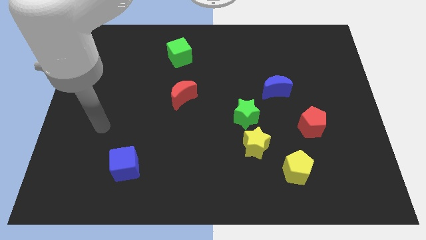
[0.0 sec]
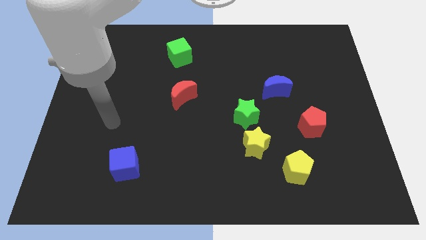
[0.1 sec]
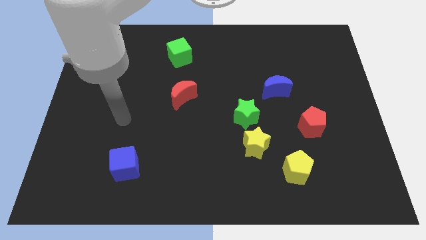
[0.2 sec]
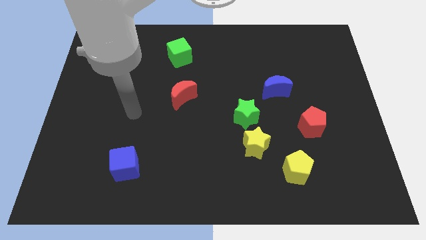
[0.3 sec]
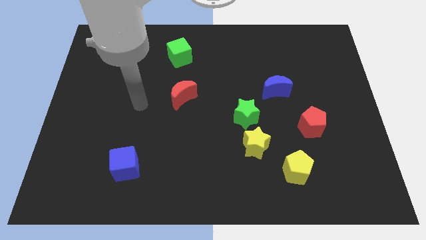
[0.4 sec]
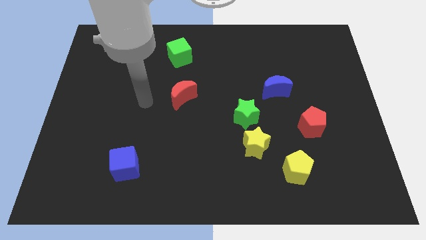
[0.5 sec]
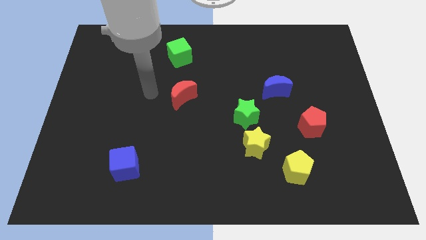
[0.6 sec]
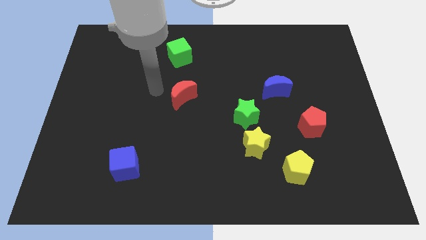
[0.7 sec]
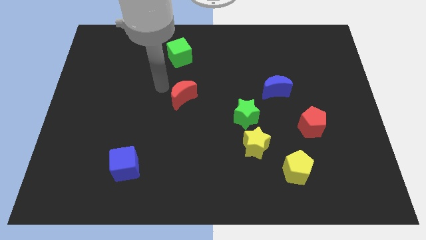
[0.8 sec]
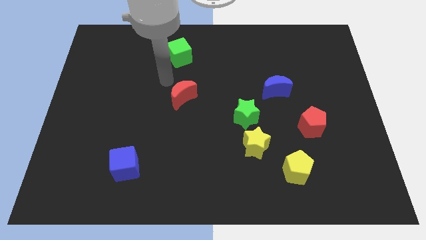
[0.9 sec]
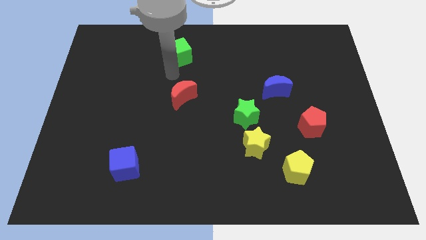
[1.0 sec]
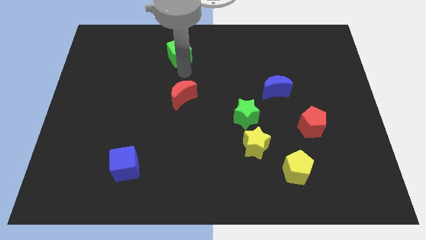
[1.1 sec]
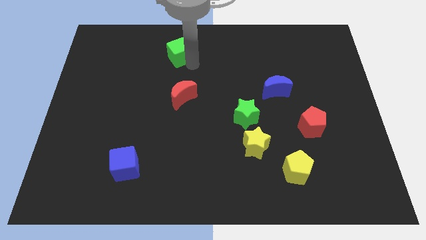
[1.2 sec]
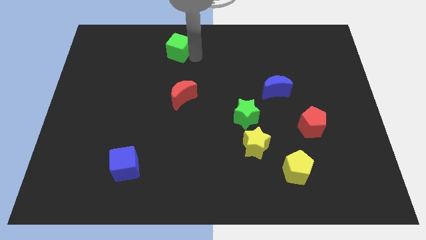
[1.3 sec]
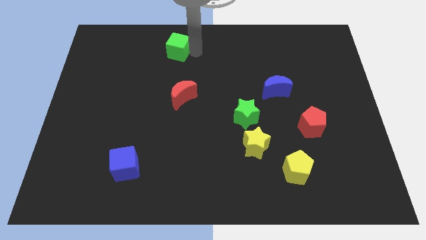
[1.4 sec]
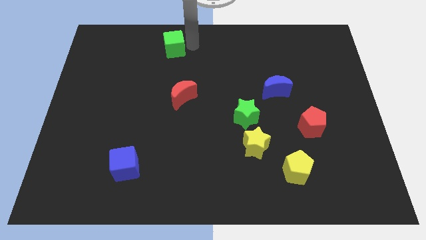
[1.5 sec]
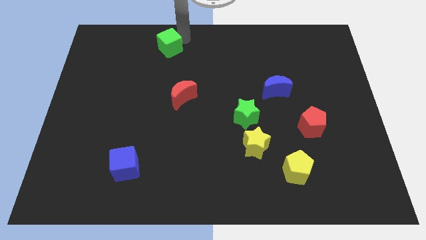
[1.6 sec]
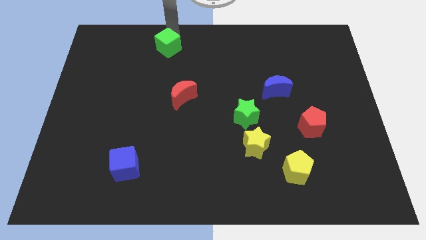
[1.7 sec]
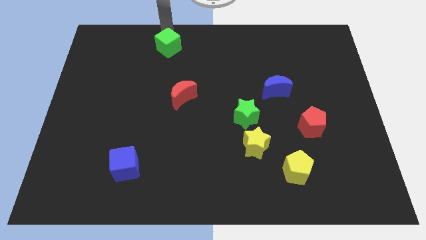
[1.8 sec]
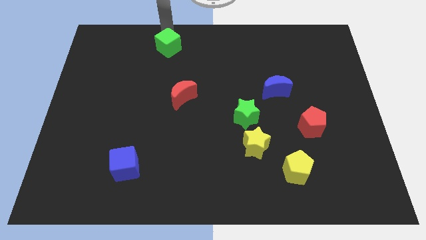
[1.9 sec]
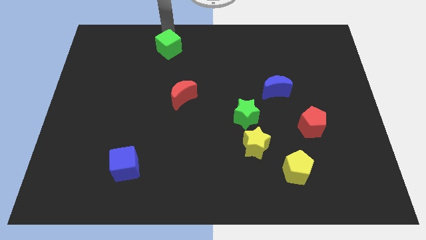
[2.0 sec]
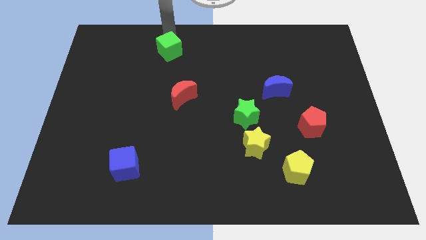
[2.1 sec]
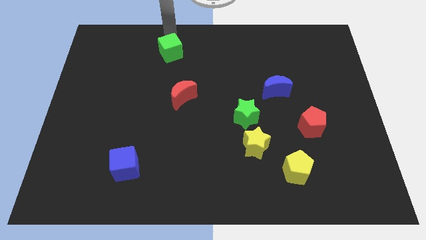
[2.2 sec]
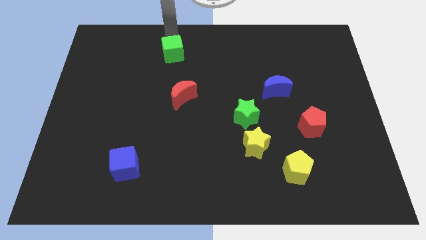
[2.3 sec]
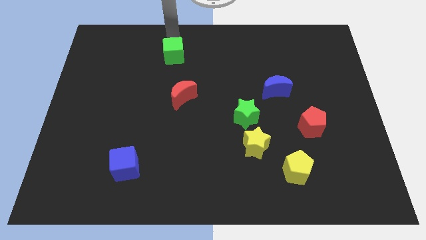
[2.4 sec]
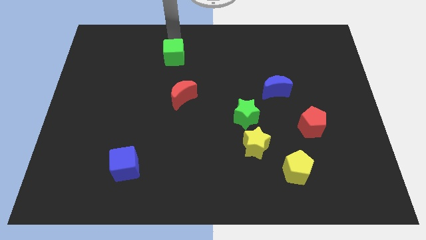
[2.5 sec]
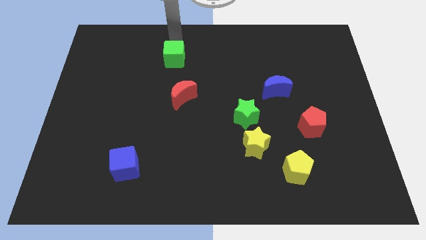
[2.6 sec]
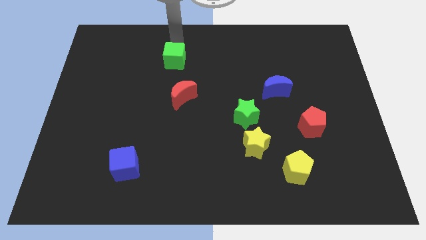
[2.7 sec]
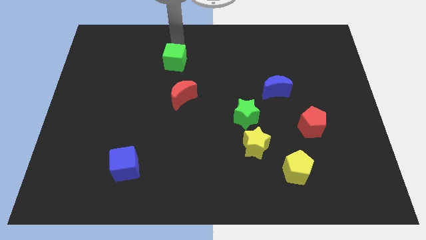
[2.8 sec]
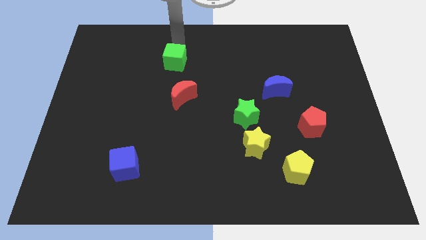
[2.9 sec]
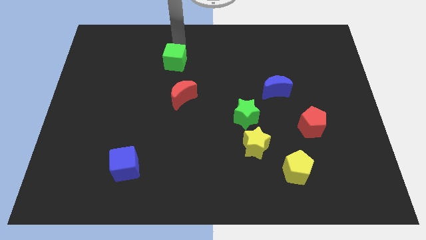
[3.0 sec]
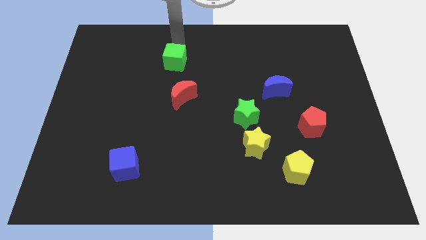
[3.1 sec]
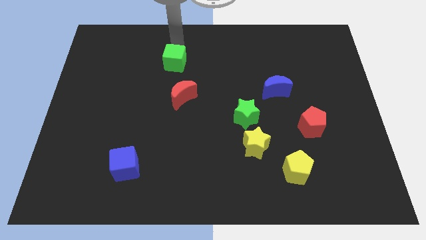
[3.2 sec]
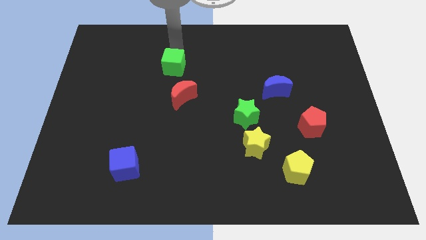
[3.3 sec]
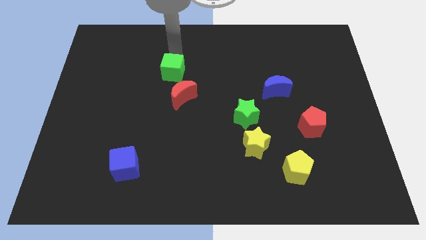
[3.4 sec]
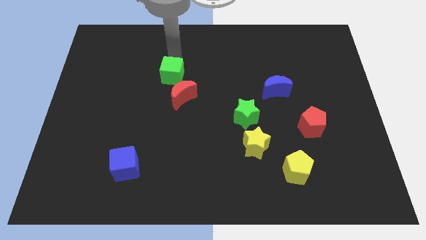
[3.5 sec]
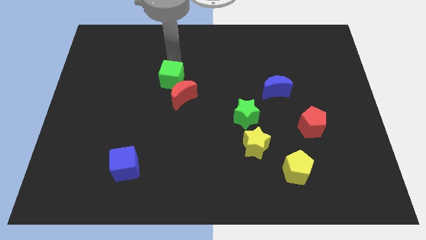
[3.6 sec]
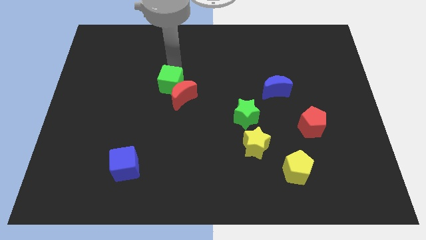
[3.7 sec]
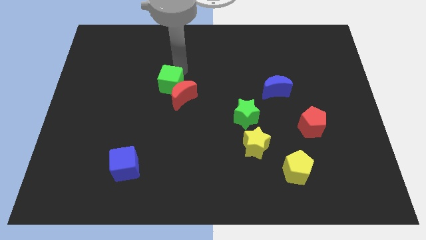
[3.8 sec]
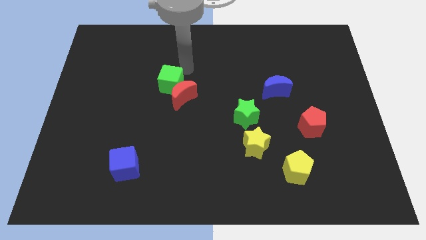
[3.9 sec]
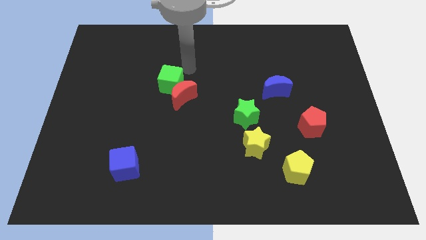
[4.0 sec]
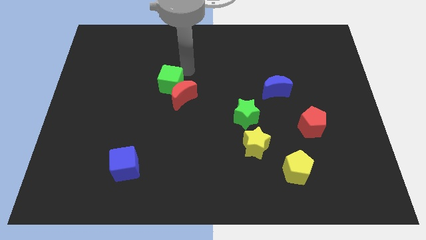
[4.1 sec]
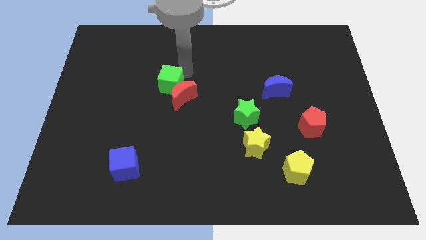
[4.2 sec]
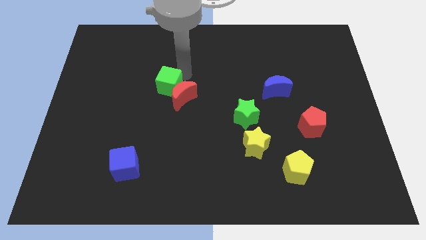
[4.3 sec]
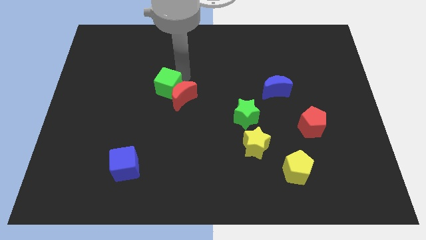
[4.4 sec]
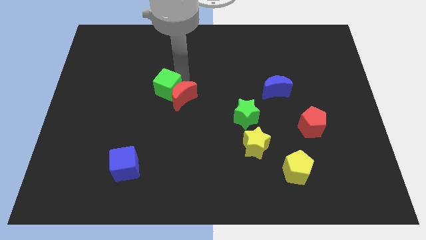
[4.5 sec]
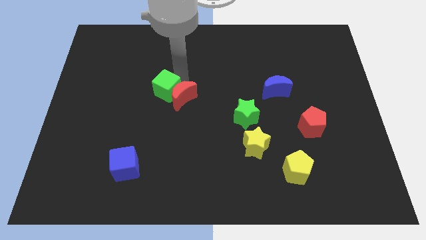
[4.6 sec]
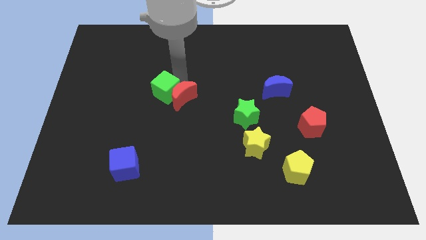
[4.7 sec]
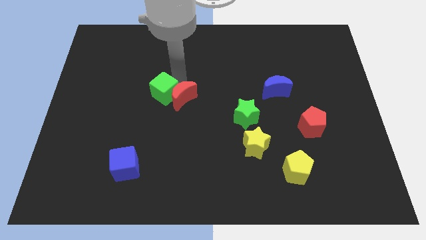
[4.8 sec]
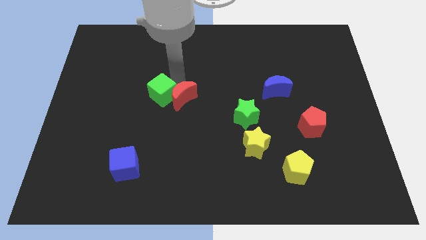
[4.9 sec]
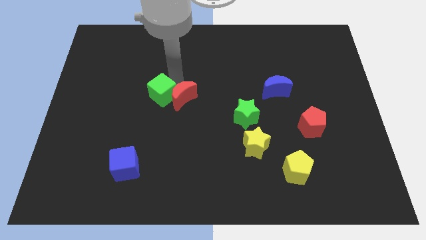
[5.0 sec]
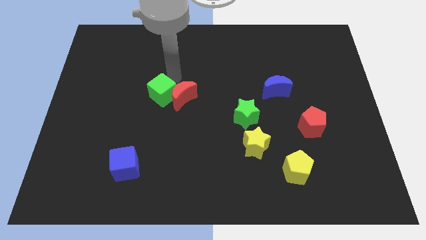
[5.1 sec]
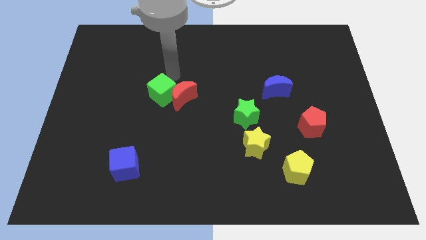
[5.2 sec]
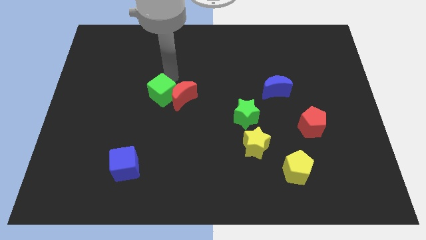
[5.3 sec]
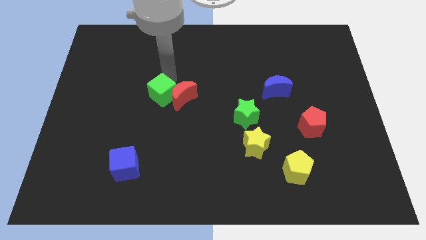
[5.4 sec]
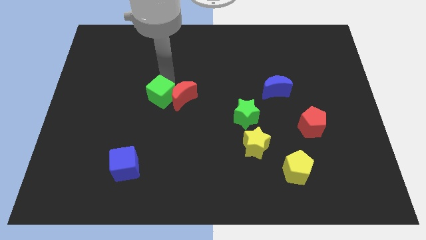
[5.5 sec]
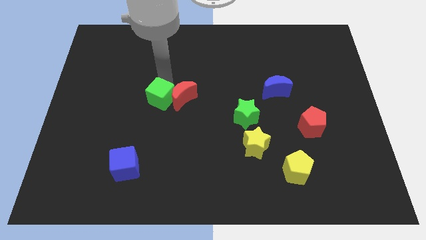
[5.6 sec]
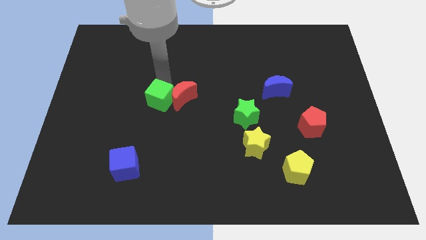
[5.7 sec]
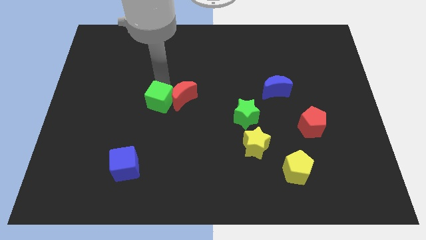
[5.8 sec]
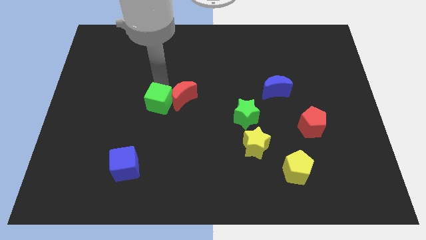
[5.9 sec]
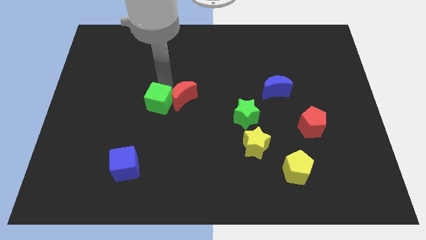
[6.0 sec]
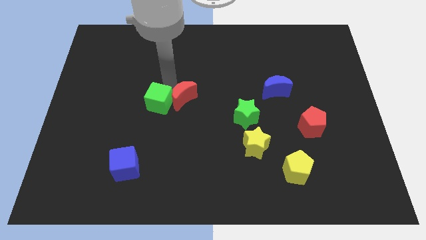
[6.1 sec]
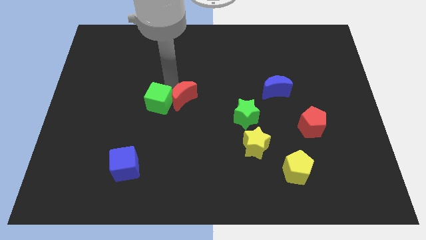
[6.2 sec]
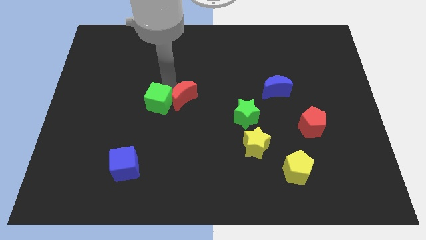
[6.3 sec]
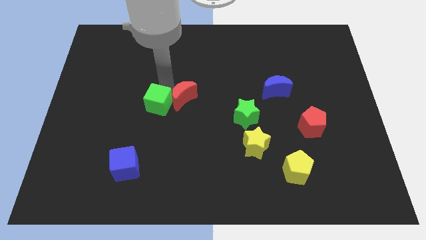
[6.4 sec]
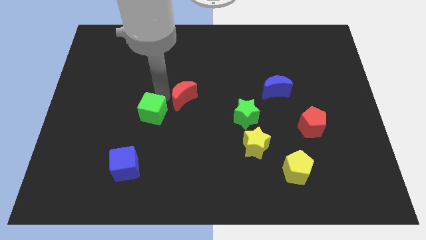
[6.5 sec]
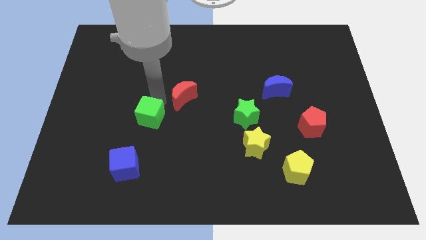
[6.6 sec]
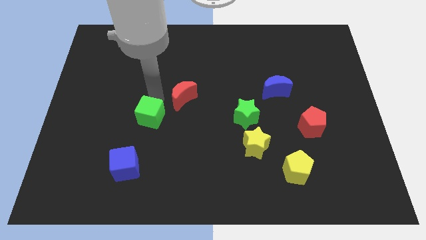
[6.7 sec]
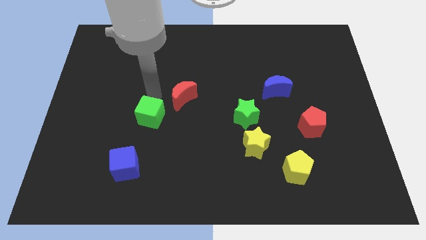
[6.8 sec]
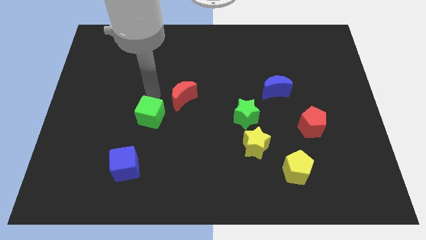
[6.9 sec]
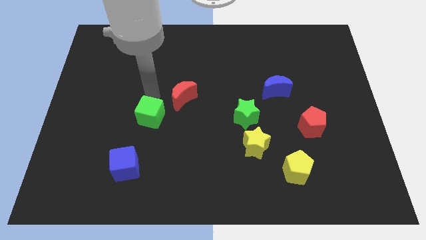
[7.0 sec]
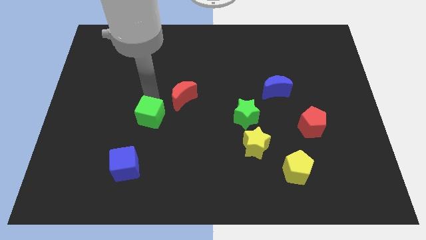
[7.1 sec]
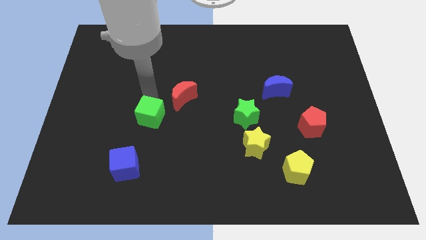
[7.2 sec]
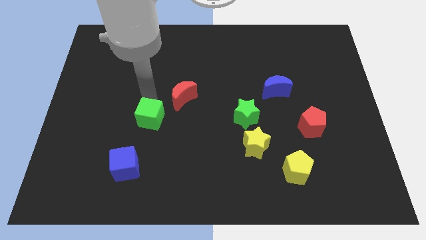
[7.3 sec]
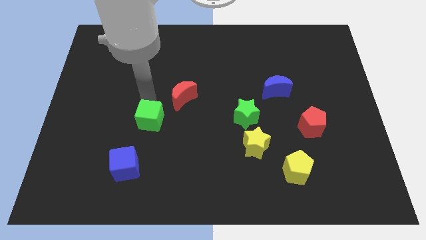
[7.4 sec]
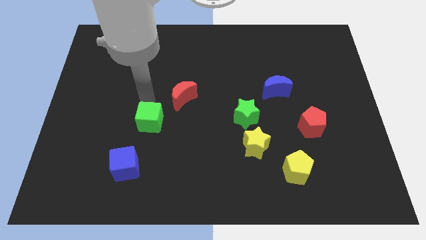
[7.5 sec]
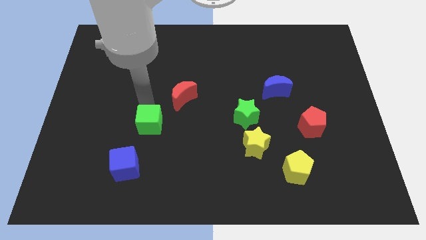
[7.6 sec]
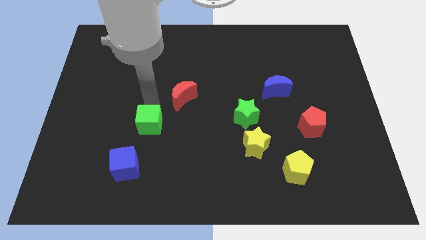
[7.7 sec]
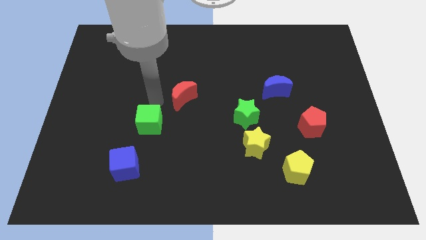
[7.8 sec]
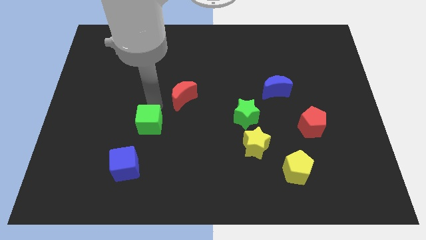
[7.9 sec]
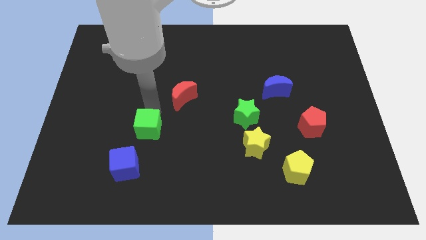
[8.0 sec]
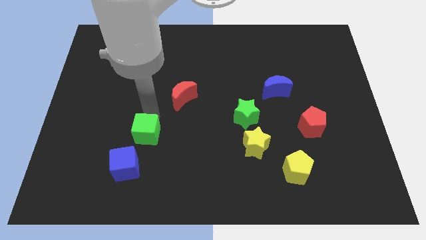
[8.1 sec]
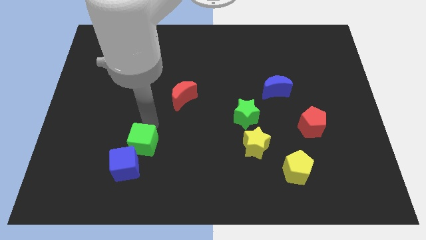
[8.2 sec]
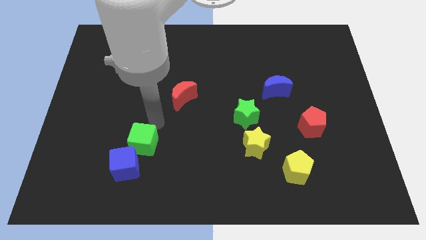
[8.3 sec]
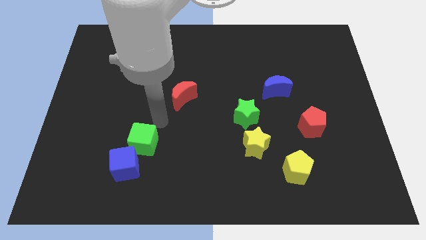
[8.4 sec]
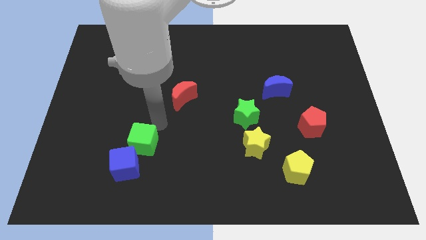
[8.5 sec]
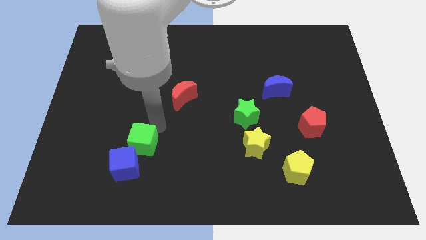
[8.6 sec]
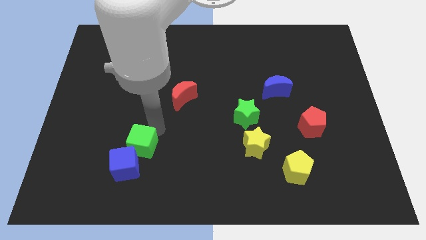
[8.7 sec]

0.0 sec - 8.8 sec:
move the green cube towards the blue cube
